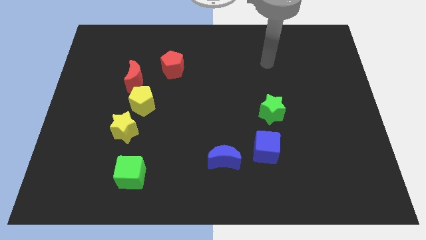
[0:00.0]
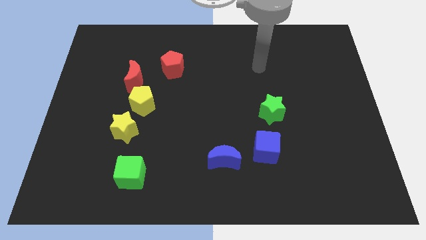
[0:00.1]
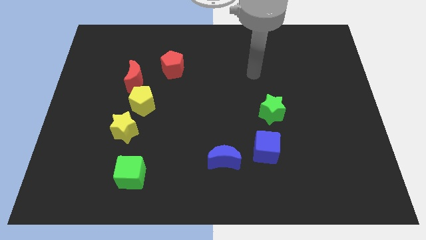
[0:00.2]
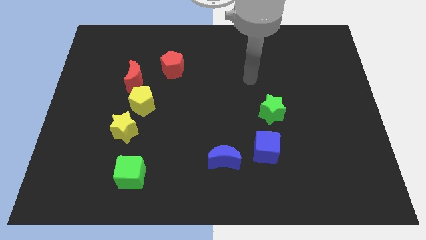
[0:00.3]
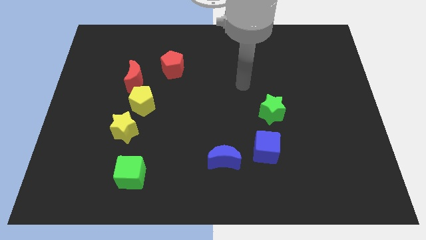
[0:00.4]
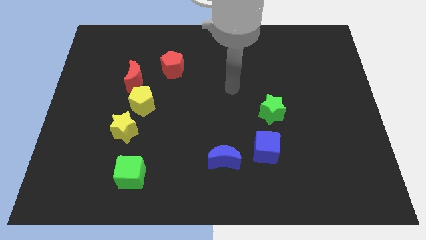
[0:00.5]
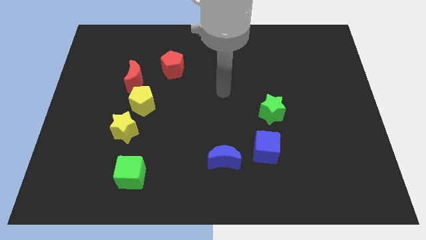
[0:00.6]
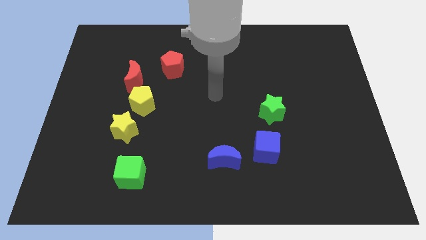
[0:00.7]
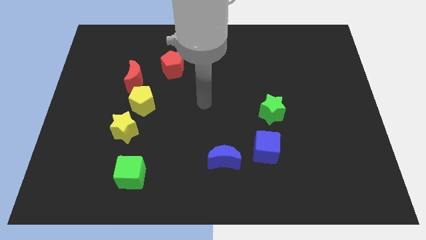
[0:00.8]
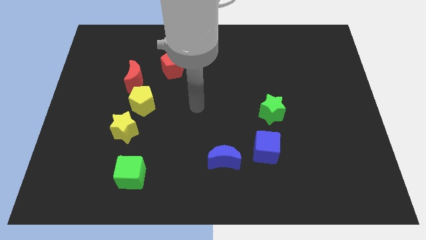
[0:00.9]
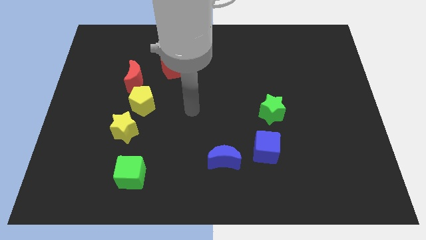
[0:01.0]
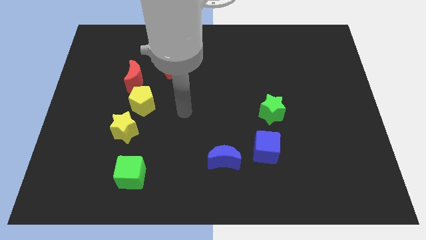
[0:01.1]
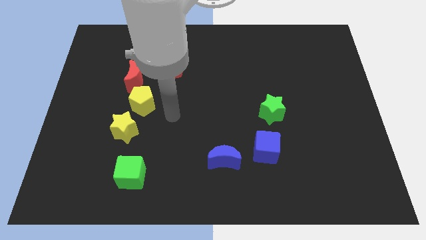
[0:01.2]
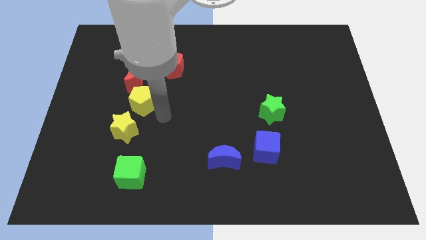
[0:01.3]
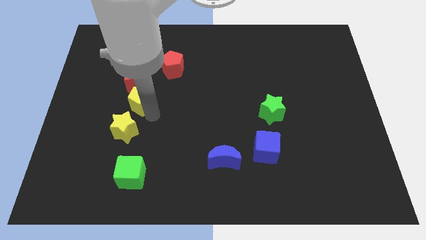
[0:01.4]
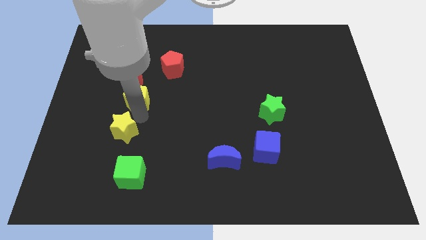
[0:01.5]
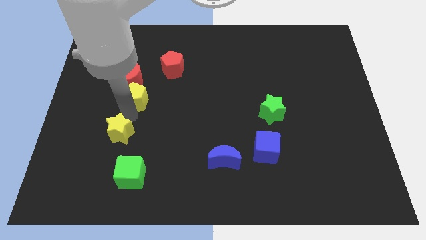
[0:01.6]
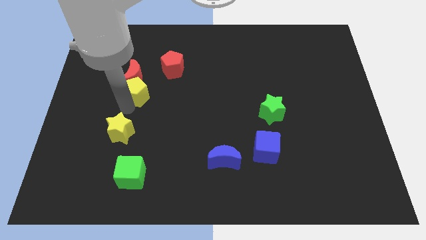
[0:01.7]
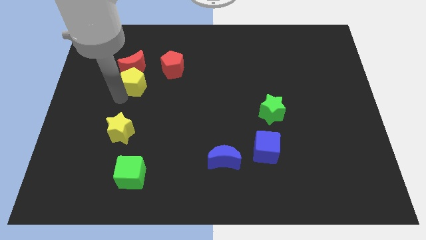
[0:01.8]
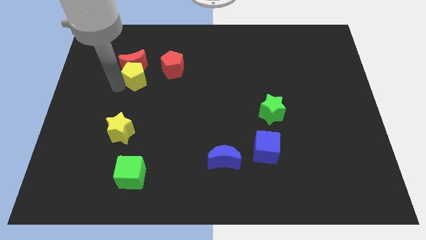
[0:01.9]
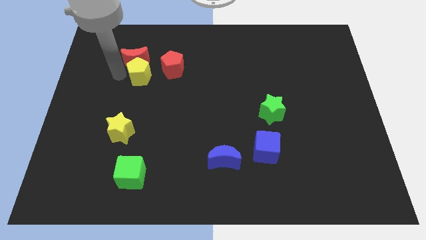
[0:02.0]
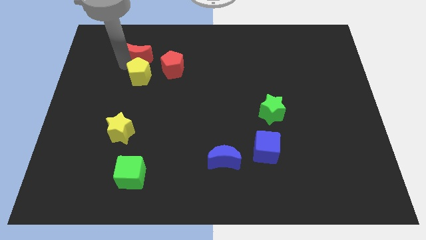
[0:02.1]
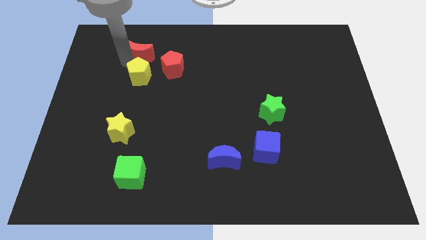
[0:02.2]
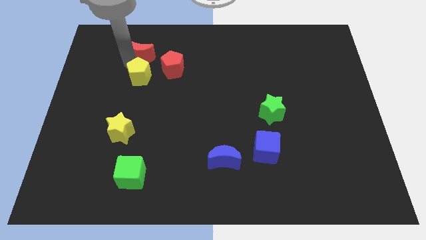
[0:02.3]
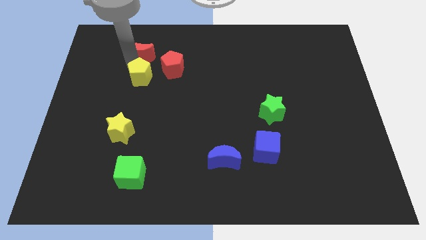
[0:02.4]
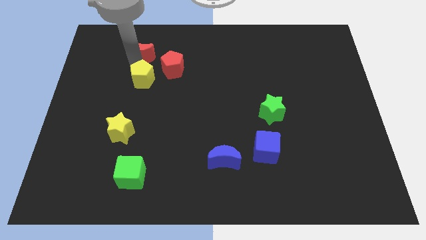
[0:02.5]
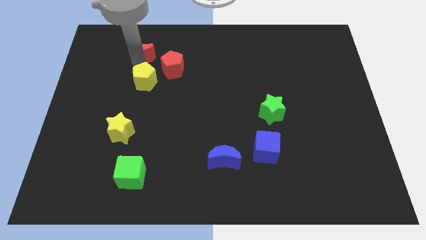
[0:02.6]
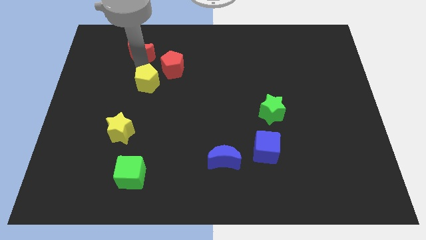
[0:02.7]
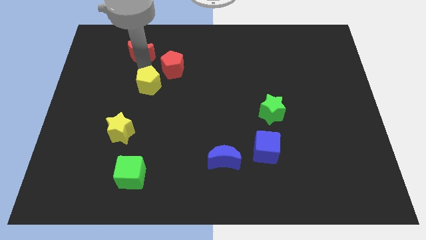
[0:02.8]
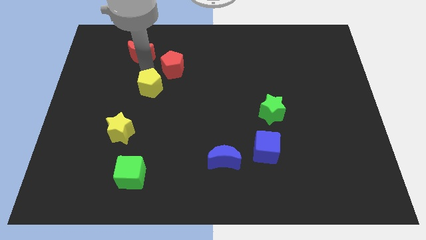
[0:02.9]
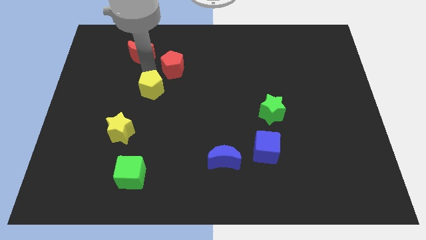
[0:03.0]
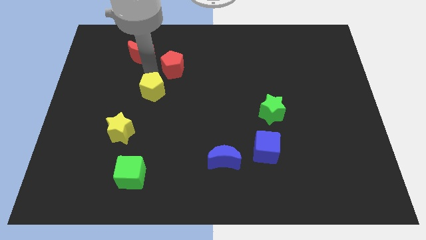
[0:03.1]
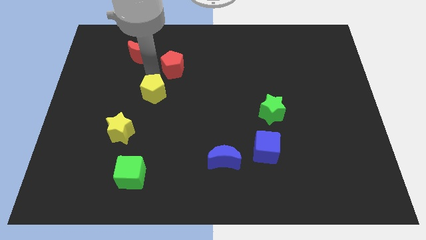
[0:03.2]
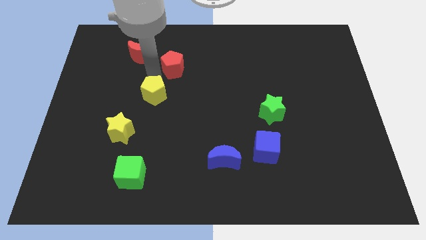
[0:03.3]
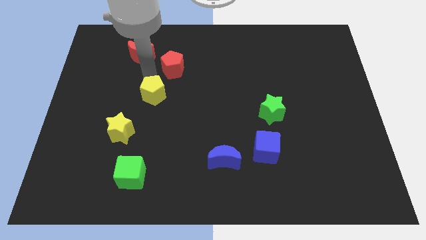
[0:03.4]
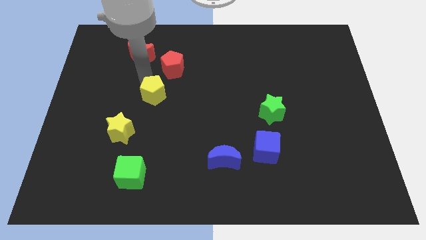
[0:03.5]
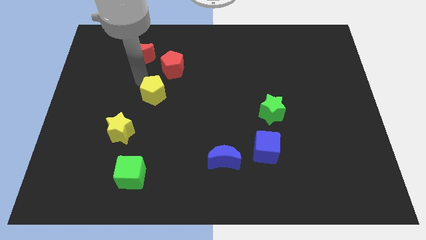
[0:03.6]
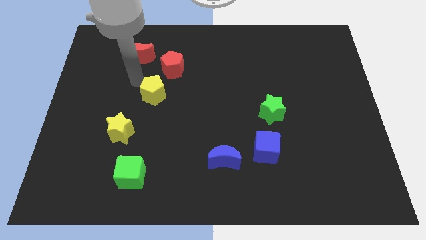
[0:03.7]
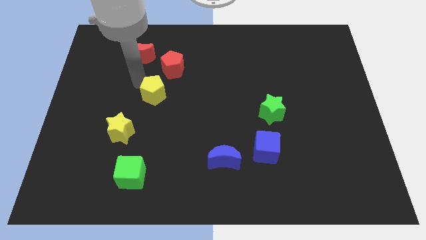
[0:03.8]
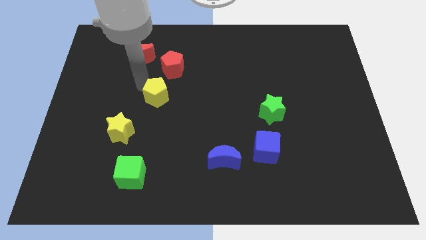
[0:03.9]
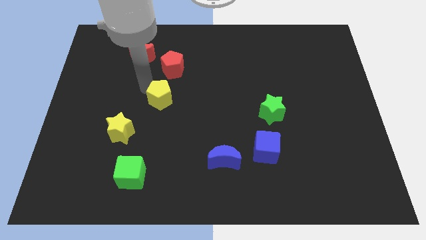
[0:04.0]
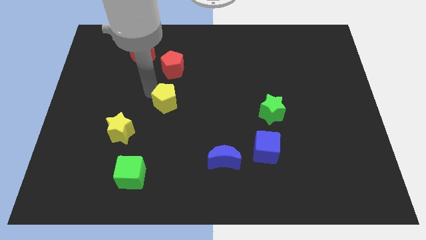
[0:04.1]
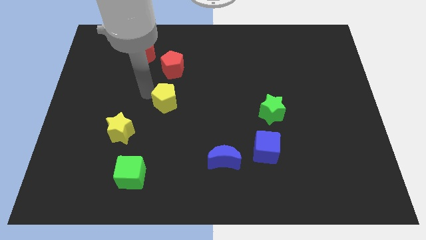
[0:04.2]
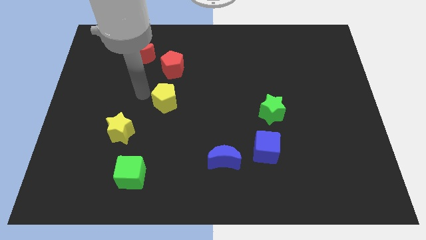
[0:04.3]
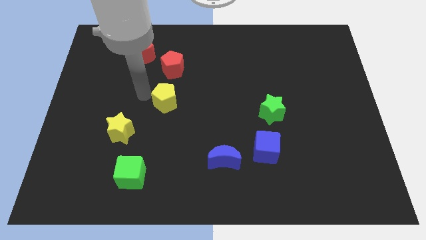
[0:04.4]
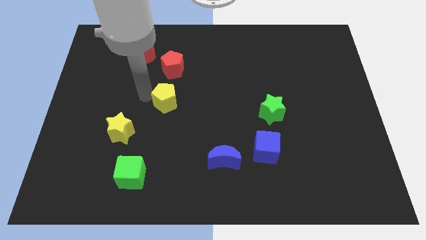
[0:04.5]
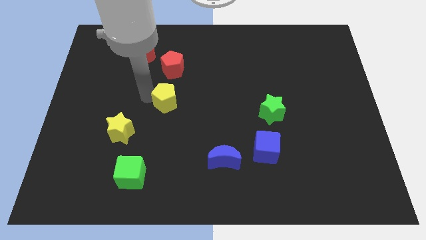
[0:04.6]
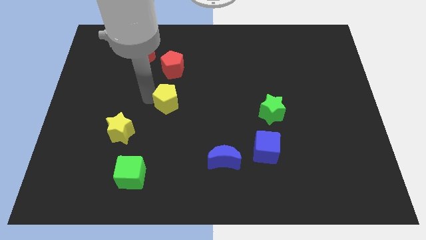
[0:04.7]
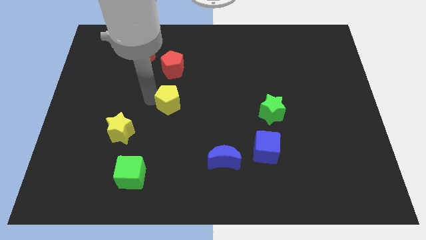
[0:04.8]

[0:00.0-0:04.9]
separate the yellow pentagon from the red moon and yellow star

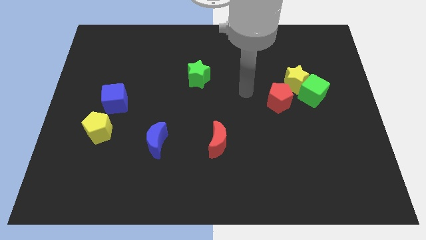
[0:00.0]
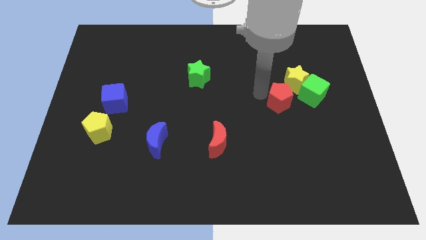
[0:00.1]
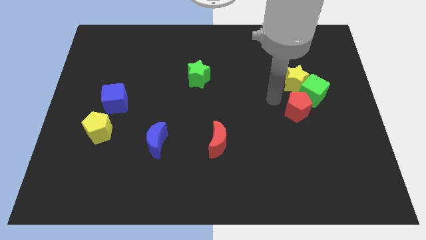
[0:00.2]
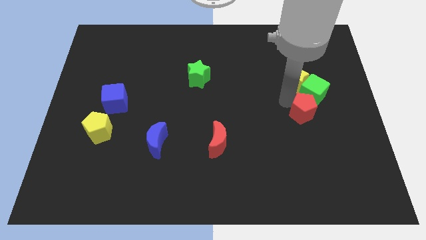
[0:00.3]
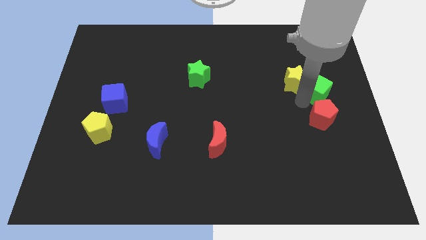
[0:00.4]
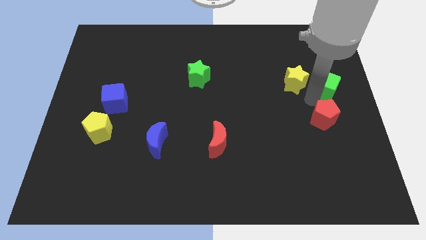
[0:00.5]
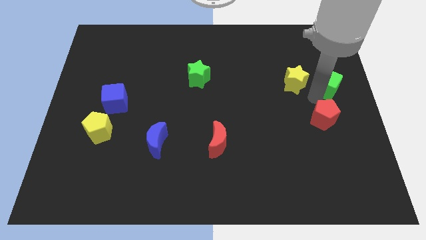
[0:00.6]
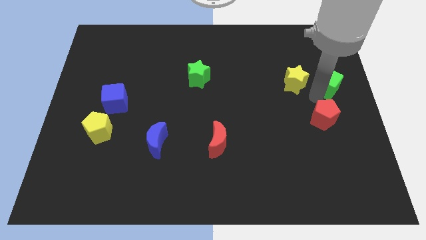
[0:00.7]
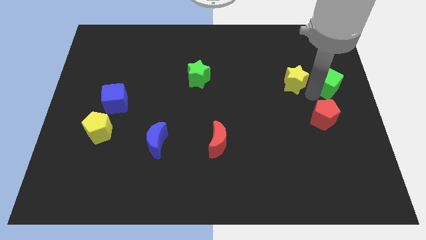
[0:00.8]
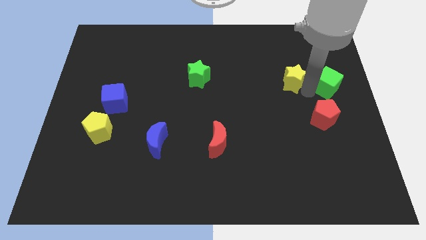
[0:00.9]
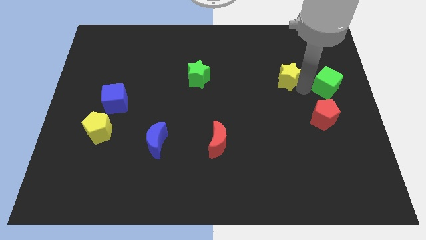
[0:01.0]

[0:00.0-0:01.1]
pull the yellow star apart from the green cube and red pentagon

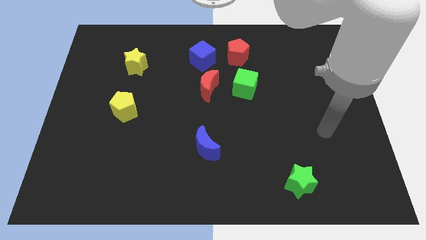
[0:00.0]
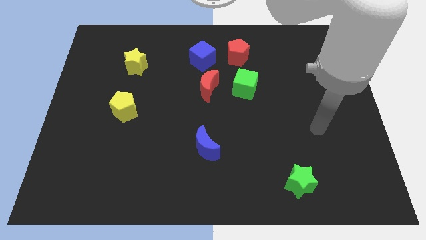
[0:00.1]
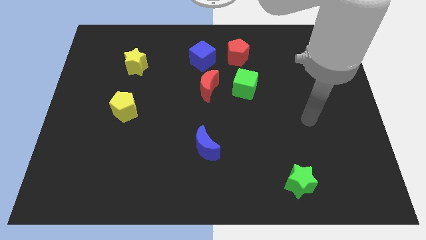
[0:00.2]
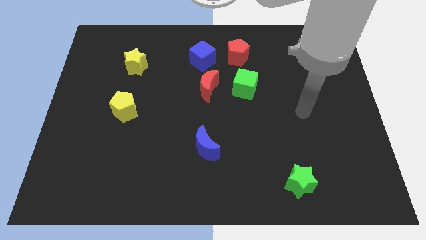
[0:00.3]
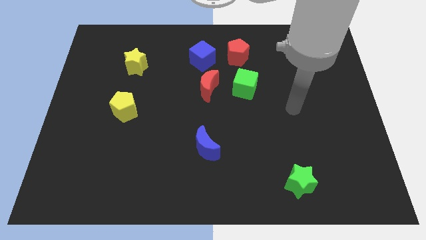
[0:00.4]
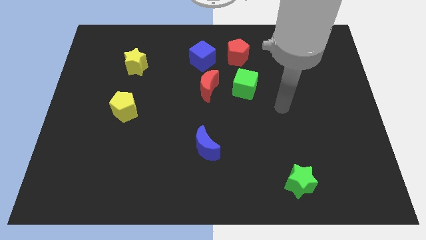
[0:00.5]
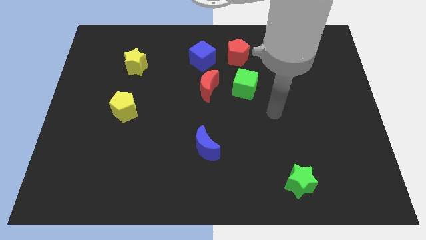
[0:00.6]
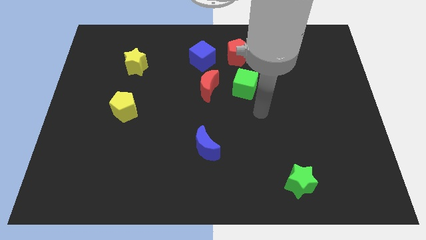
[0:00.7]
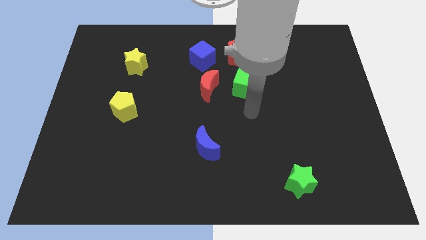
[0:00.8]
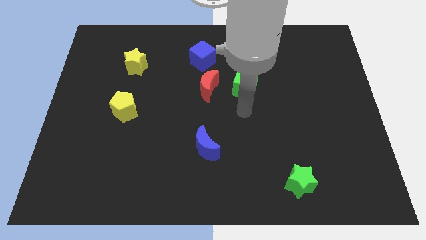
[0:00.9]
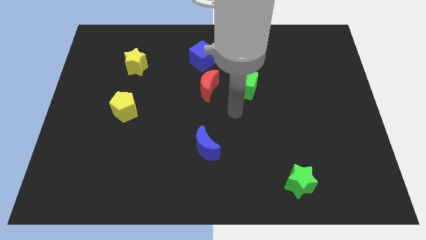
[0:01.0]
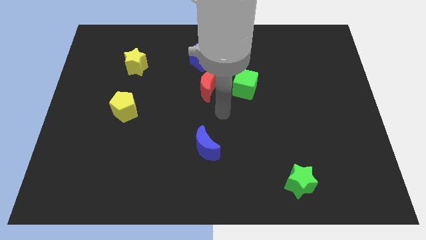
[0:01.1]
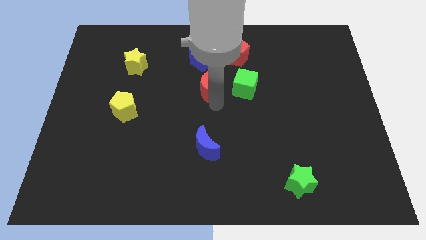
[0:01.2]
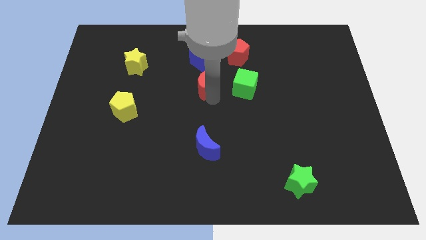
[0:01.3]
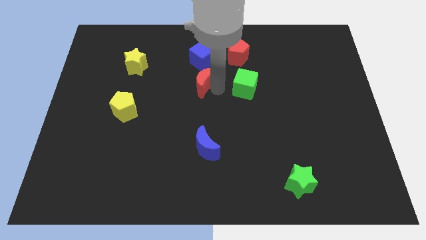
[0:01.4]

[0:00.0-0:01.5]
pull the green cube apart from the red moon

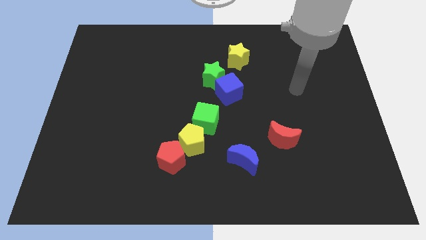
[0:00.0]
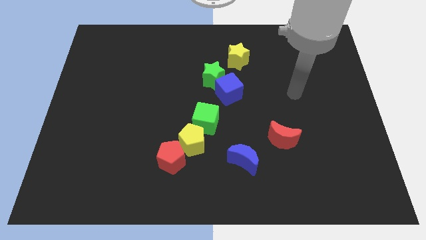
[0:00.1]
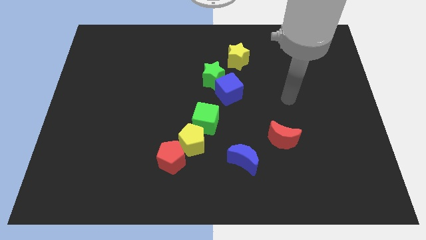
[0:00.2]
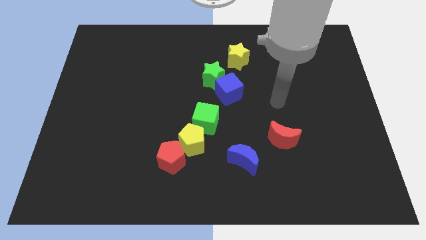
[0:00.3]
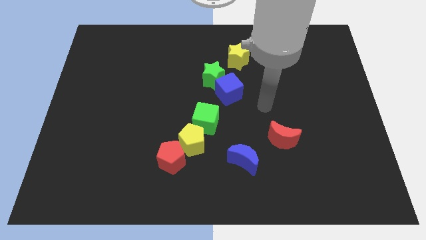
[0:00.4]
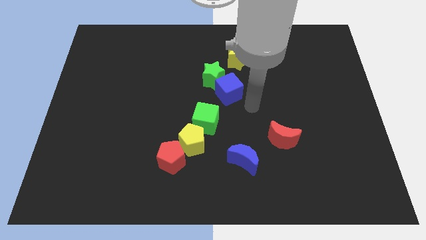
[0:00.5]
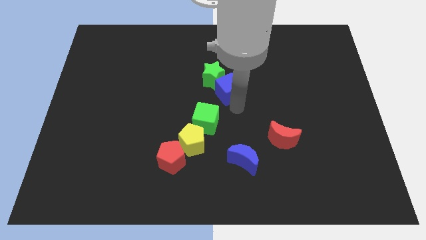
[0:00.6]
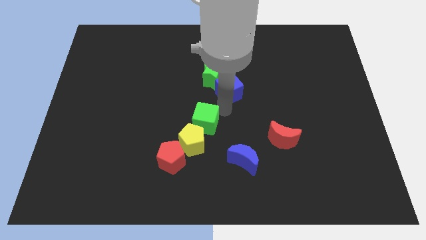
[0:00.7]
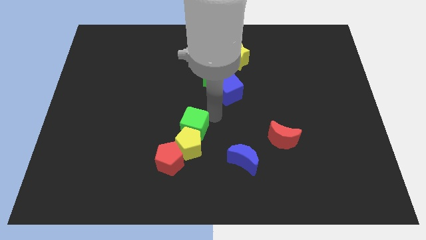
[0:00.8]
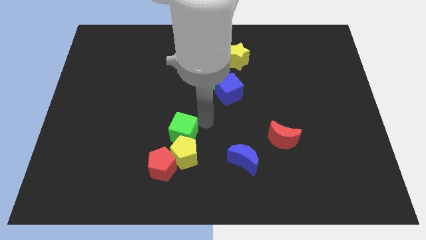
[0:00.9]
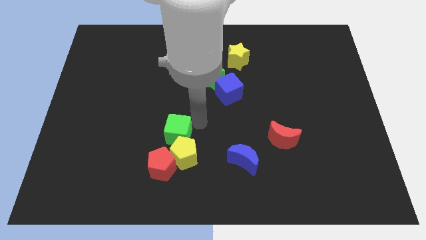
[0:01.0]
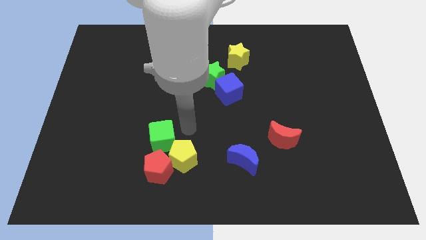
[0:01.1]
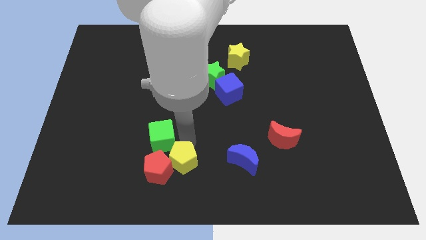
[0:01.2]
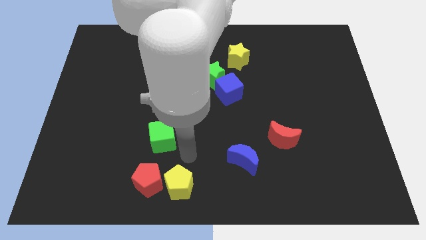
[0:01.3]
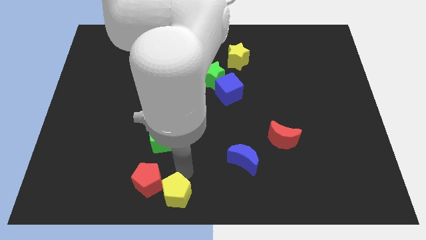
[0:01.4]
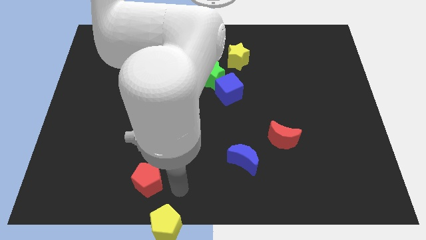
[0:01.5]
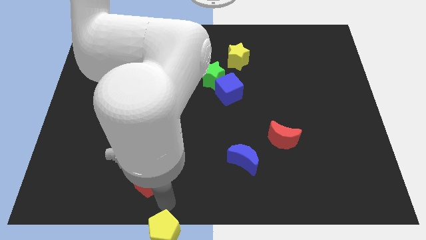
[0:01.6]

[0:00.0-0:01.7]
move the red pentagon away from the yellow pentagon

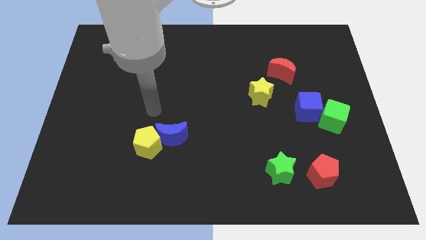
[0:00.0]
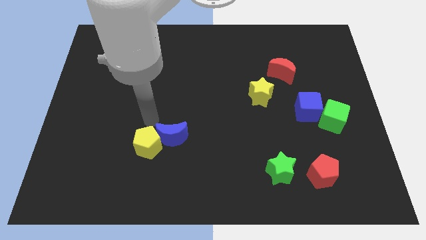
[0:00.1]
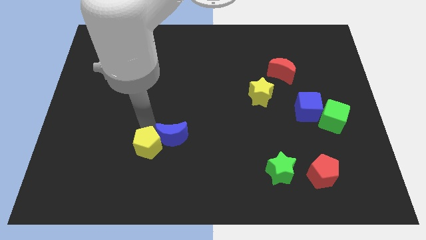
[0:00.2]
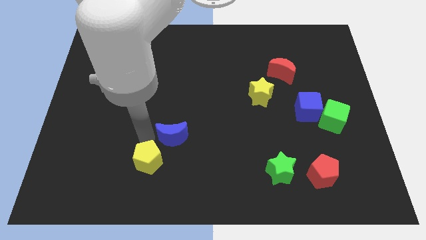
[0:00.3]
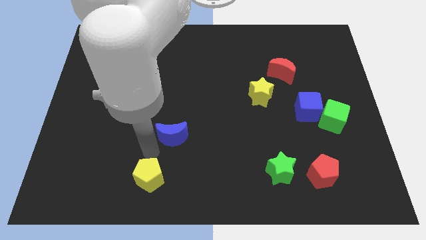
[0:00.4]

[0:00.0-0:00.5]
pull the blue moon apart from the yellow pentagon
